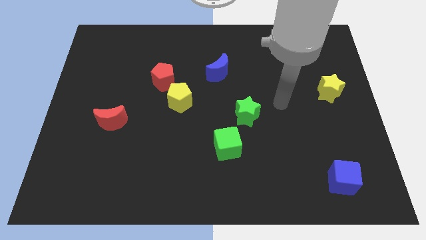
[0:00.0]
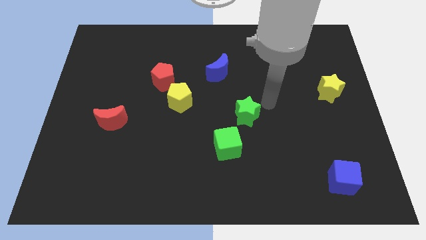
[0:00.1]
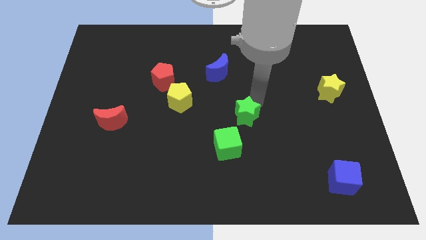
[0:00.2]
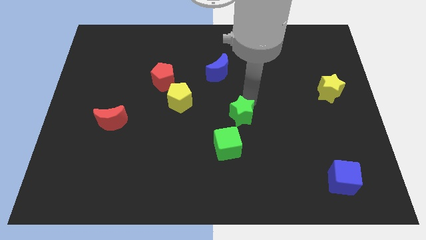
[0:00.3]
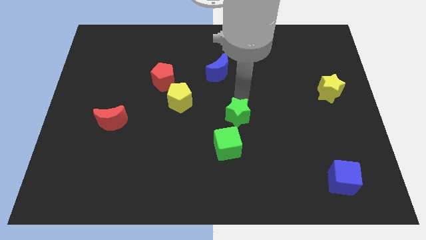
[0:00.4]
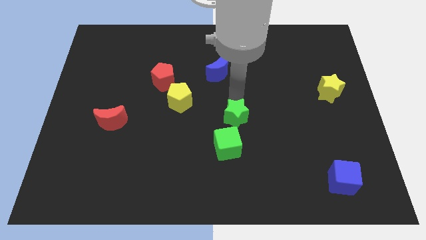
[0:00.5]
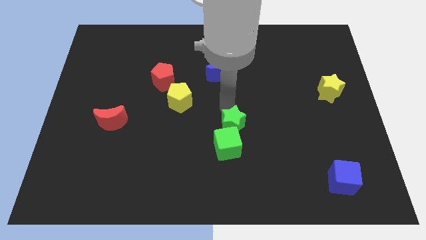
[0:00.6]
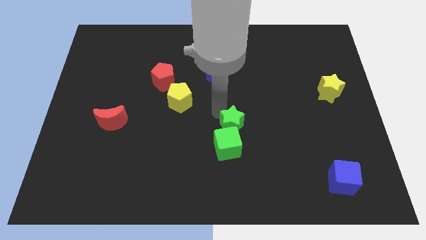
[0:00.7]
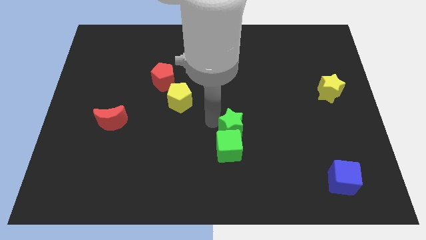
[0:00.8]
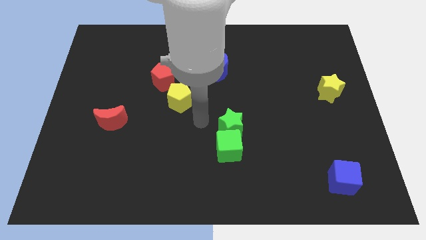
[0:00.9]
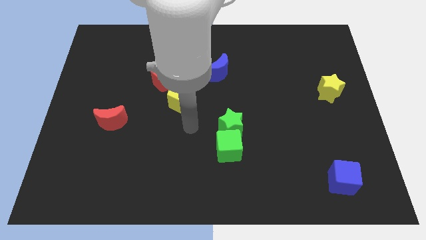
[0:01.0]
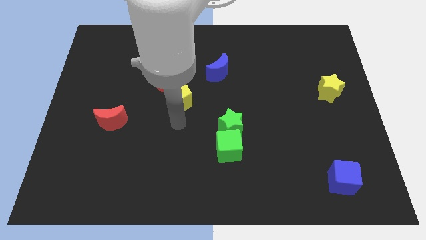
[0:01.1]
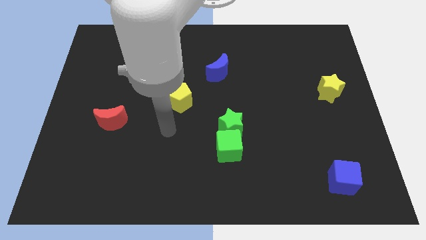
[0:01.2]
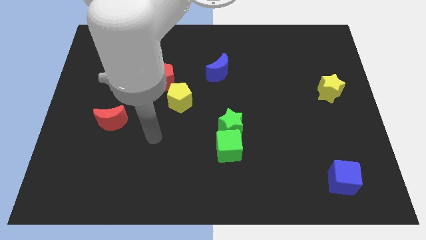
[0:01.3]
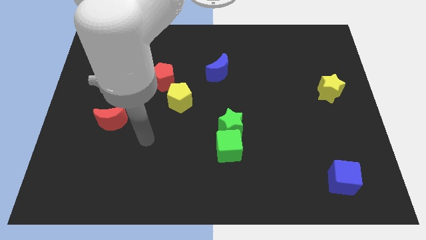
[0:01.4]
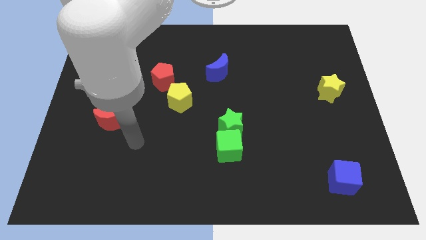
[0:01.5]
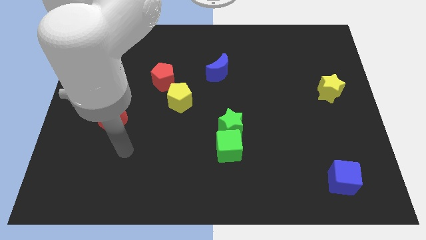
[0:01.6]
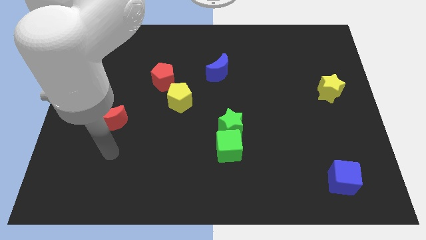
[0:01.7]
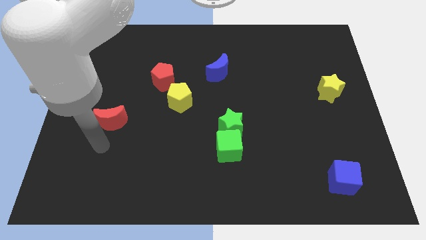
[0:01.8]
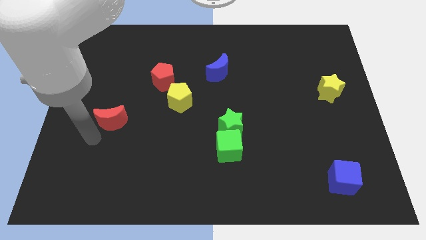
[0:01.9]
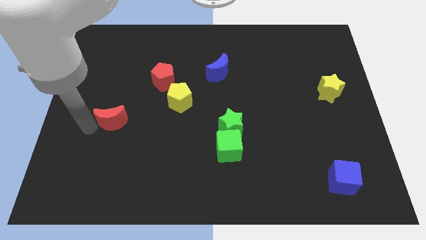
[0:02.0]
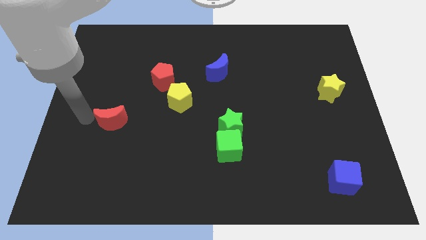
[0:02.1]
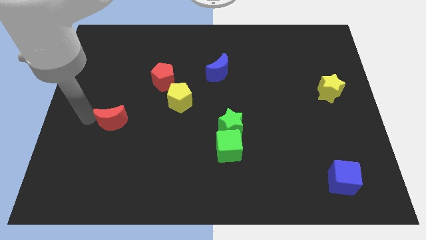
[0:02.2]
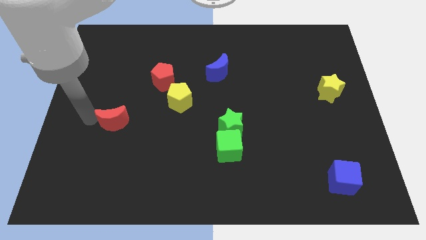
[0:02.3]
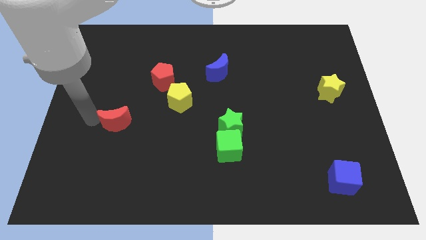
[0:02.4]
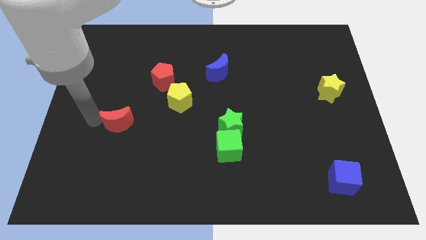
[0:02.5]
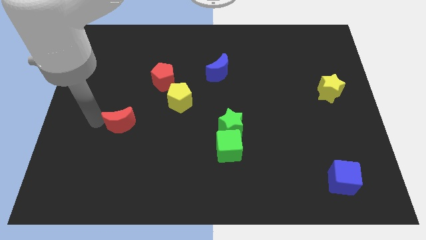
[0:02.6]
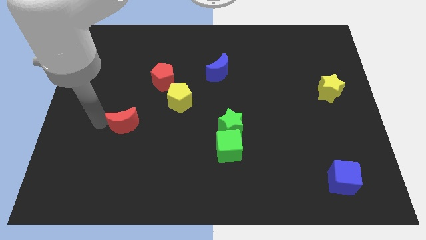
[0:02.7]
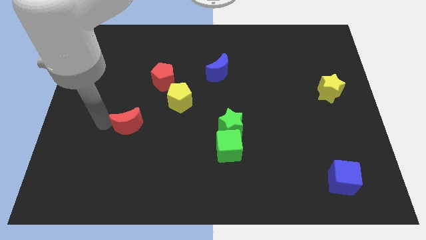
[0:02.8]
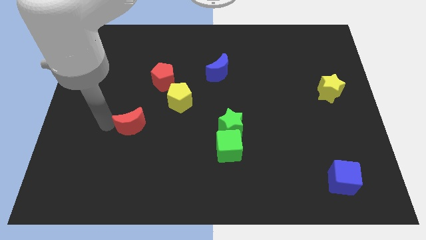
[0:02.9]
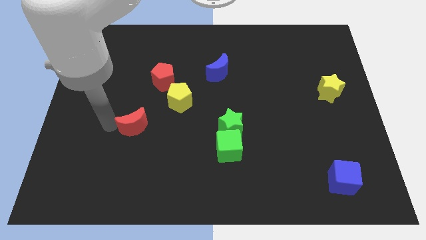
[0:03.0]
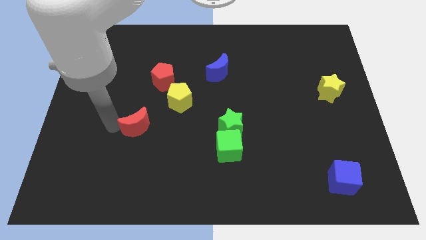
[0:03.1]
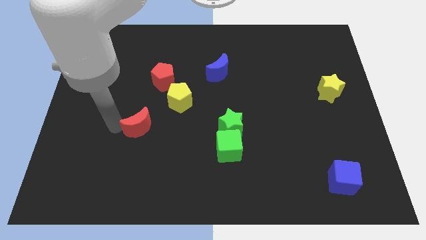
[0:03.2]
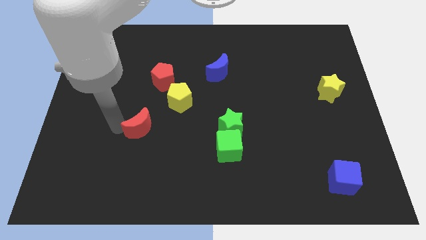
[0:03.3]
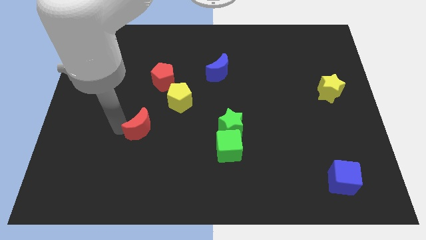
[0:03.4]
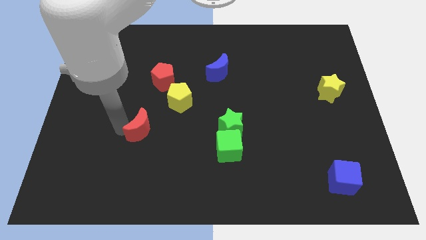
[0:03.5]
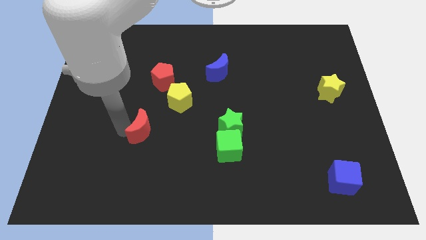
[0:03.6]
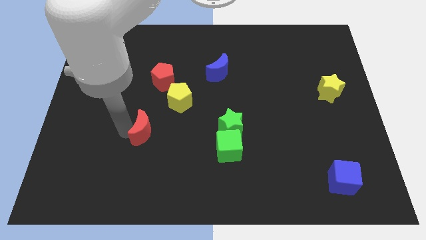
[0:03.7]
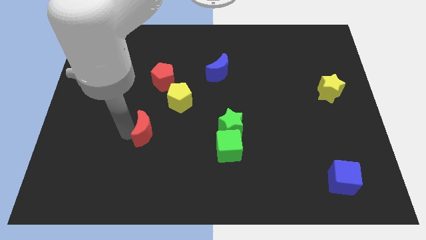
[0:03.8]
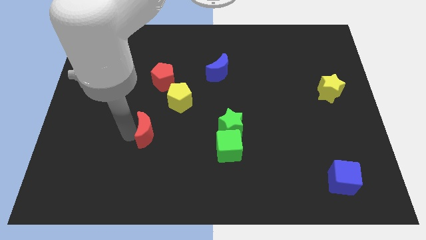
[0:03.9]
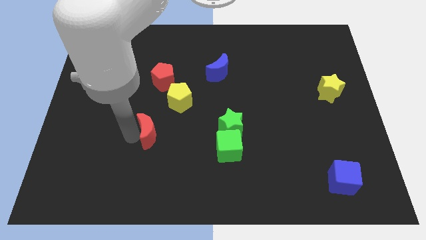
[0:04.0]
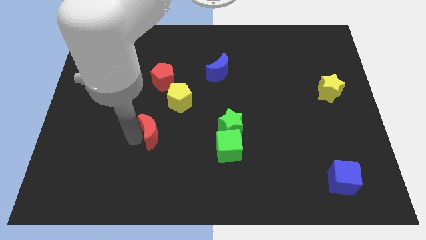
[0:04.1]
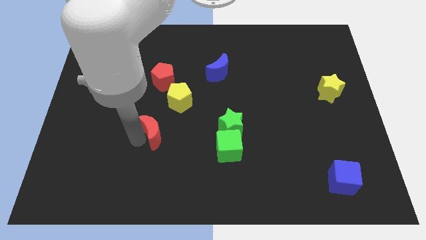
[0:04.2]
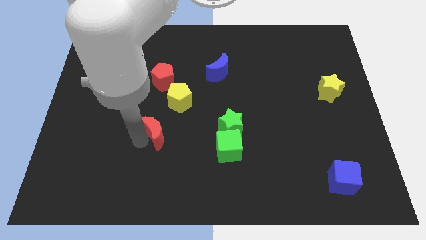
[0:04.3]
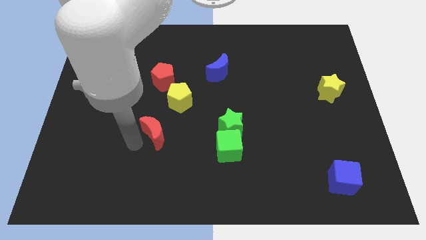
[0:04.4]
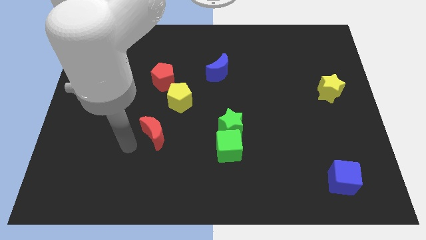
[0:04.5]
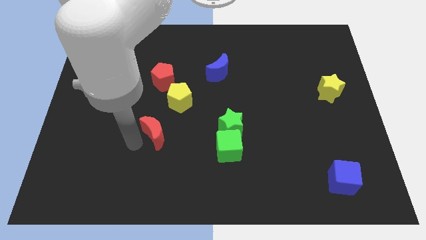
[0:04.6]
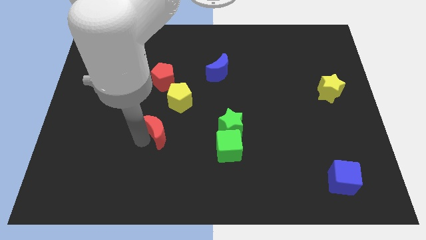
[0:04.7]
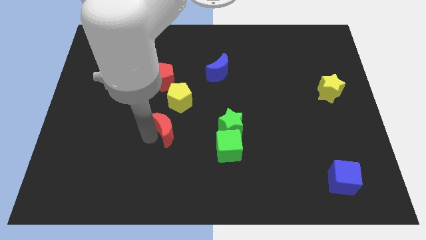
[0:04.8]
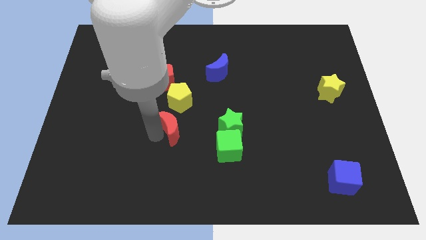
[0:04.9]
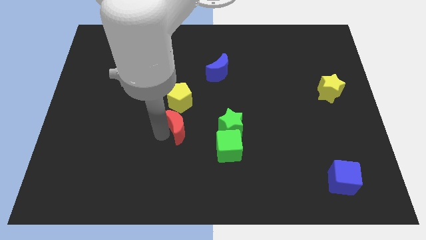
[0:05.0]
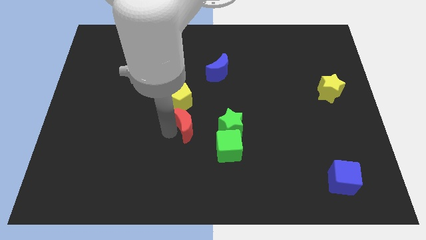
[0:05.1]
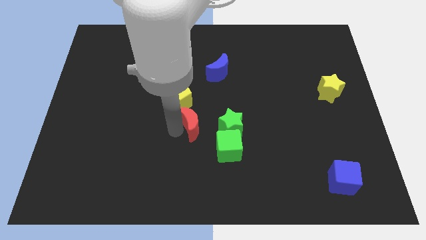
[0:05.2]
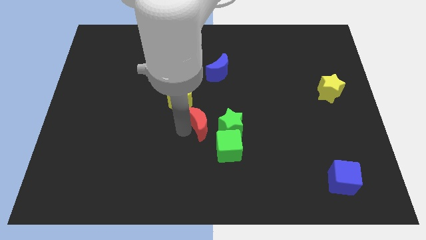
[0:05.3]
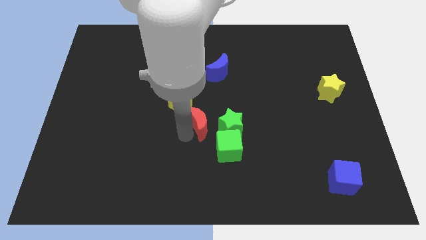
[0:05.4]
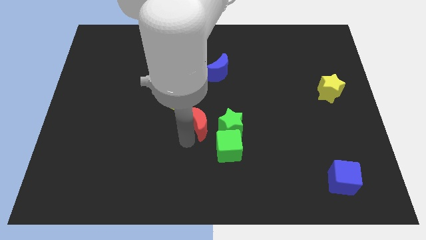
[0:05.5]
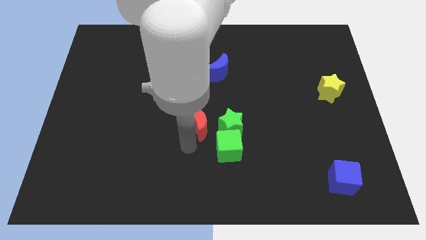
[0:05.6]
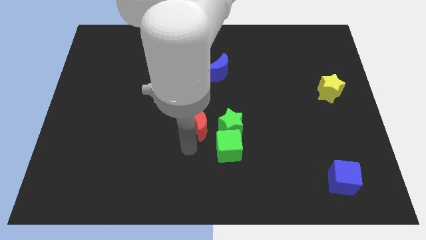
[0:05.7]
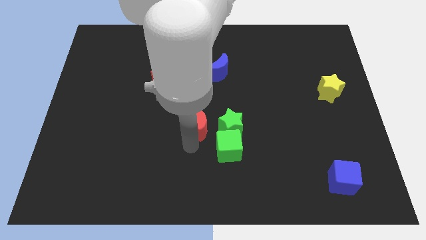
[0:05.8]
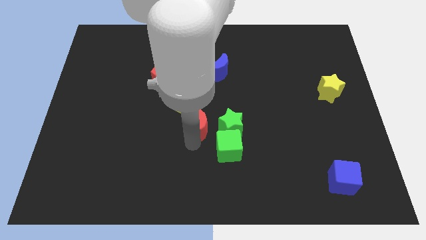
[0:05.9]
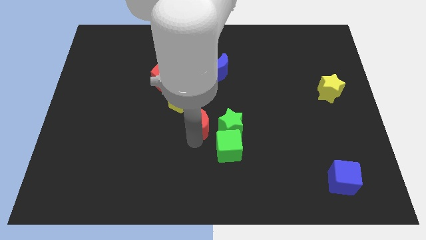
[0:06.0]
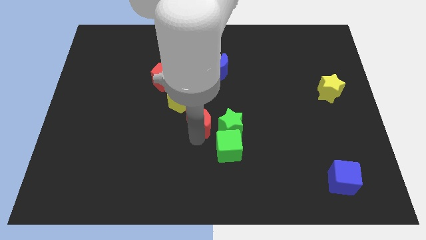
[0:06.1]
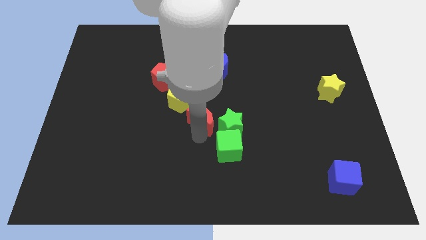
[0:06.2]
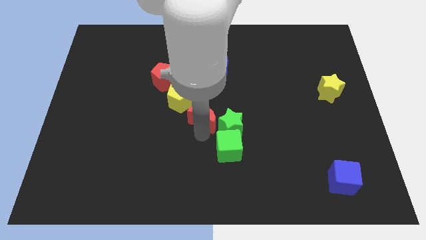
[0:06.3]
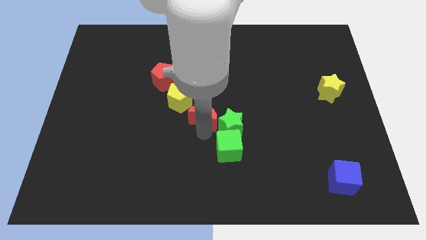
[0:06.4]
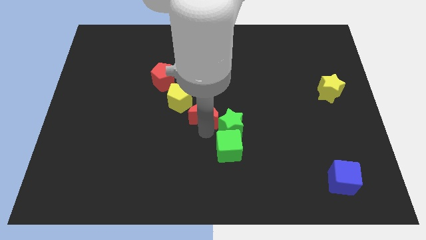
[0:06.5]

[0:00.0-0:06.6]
move the red moon right of the yellow pentagon

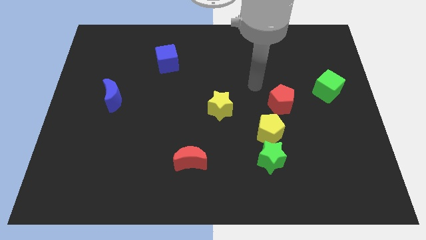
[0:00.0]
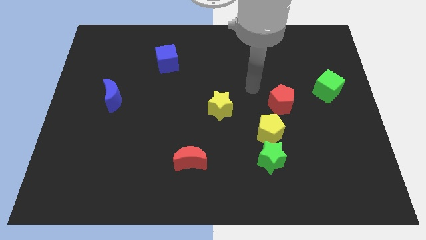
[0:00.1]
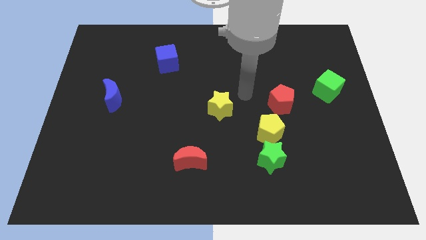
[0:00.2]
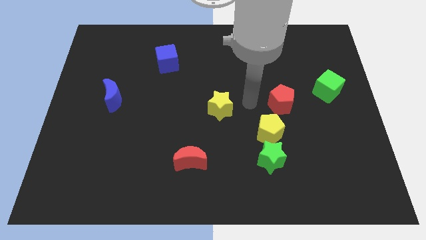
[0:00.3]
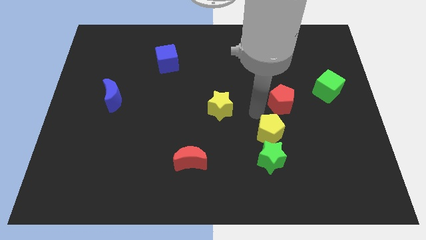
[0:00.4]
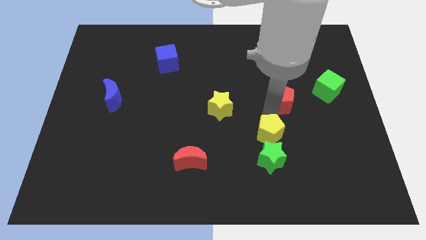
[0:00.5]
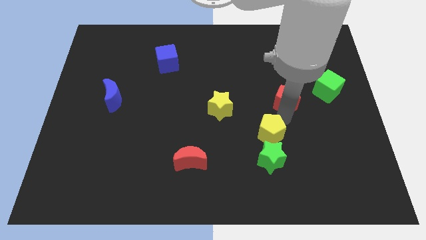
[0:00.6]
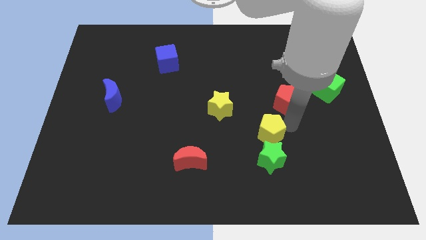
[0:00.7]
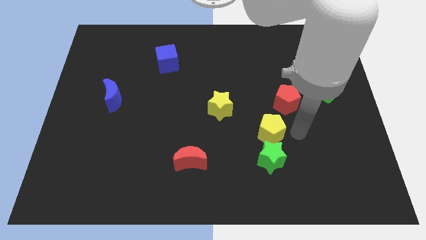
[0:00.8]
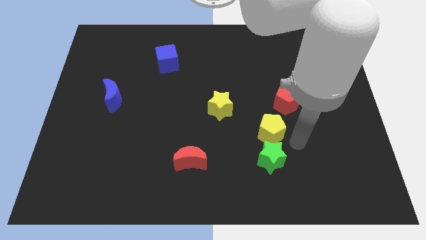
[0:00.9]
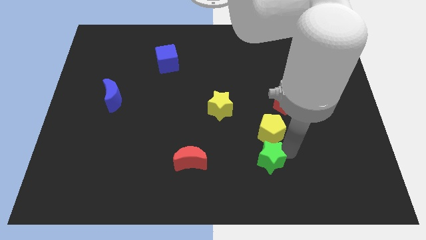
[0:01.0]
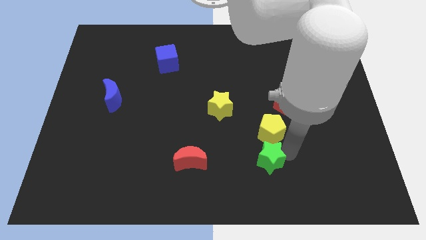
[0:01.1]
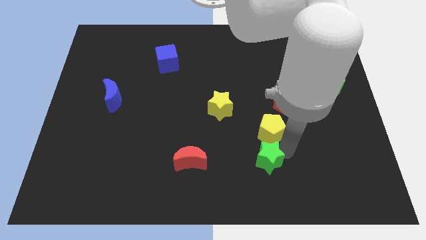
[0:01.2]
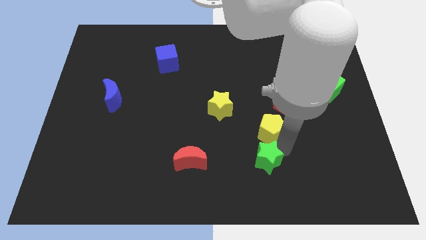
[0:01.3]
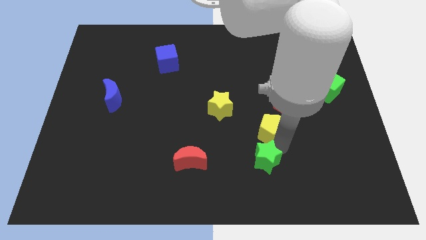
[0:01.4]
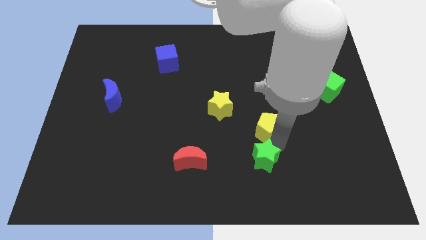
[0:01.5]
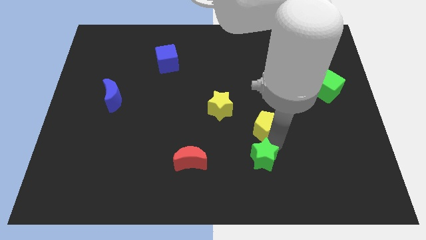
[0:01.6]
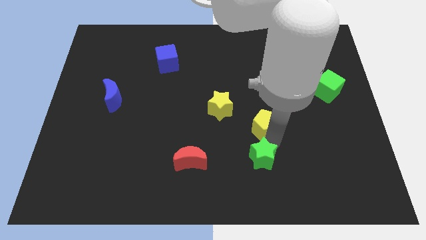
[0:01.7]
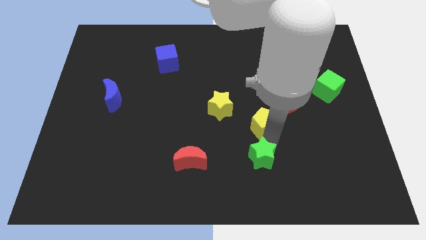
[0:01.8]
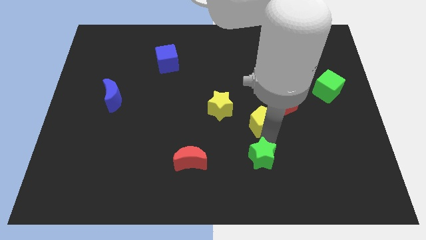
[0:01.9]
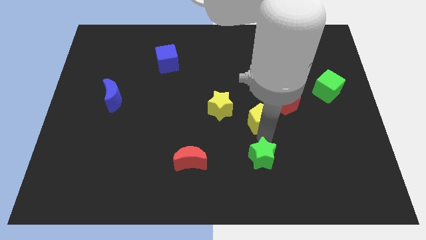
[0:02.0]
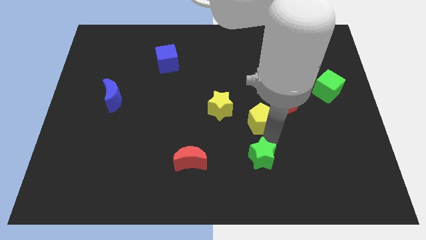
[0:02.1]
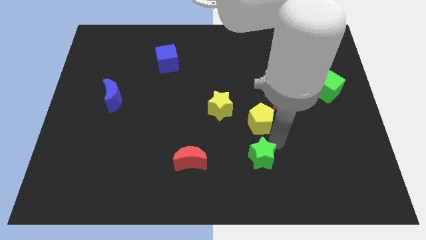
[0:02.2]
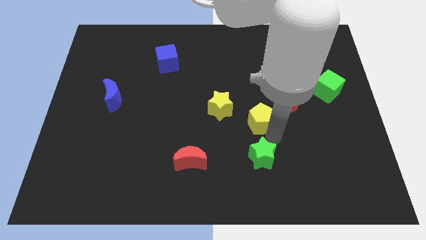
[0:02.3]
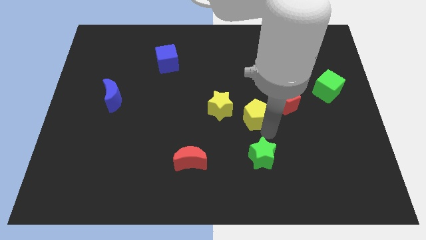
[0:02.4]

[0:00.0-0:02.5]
push the yellow pentagon to the left of the red pentagon
